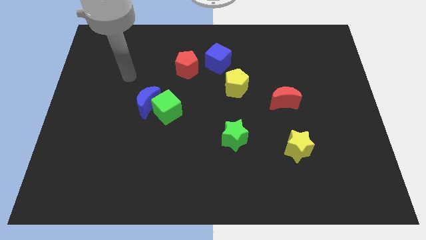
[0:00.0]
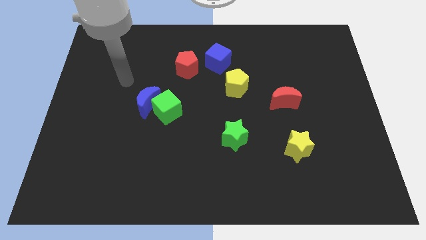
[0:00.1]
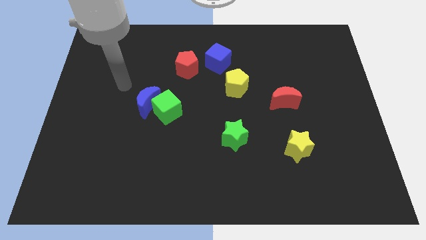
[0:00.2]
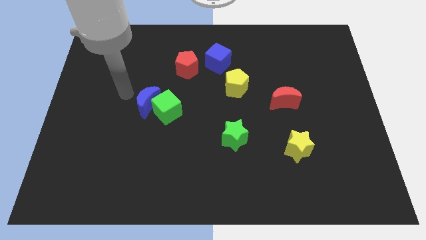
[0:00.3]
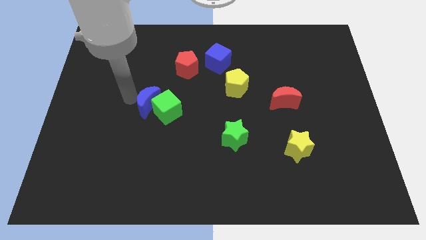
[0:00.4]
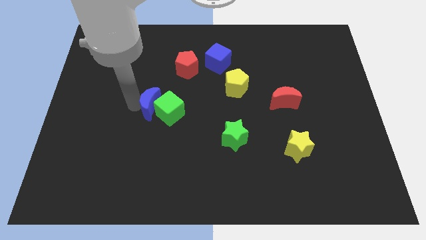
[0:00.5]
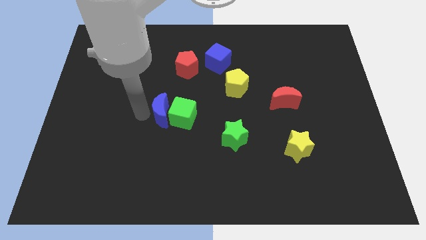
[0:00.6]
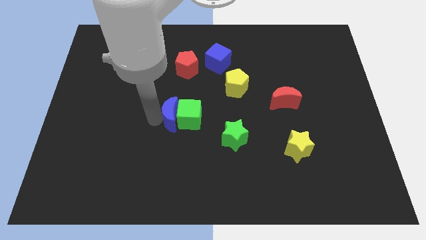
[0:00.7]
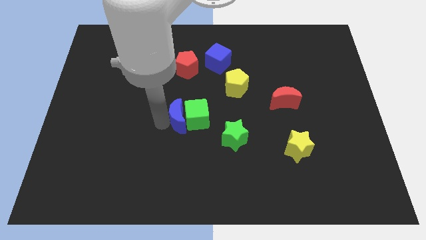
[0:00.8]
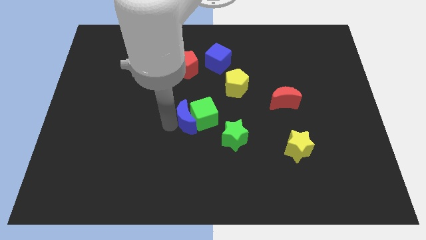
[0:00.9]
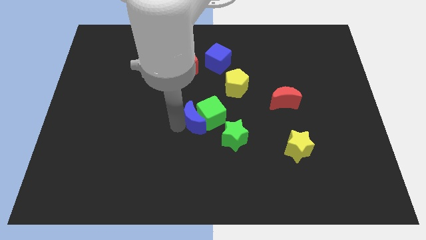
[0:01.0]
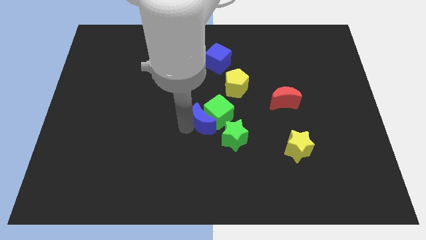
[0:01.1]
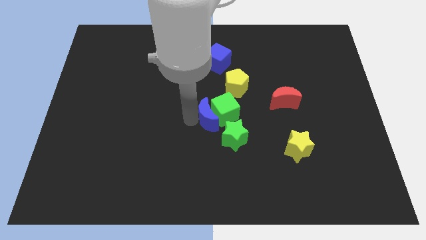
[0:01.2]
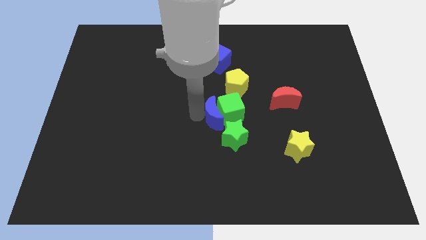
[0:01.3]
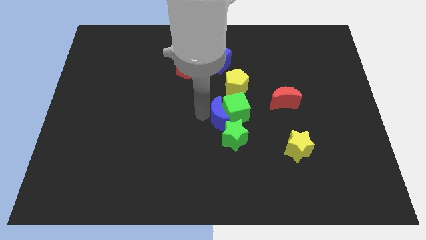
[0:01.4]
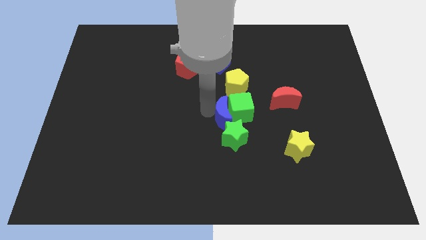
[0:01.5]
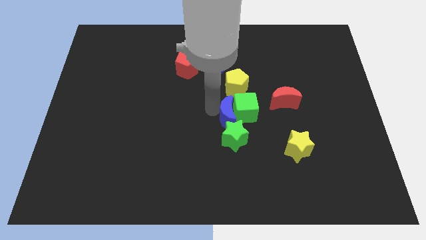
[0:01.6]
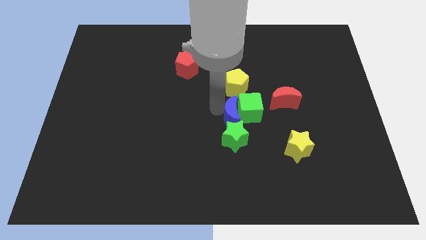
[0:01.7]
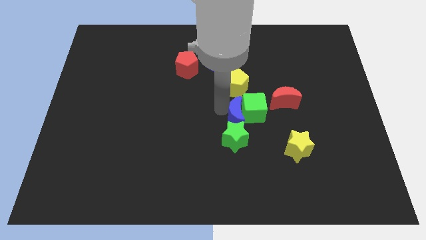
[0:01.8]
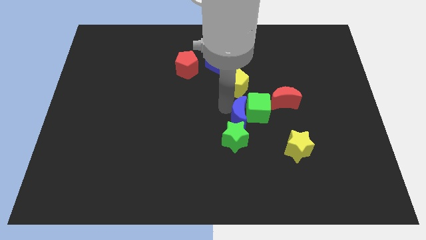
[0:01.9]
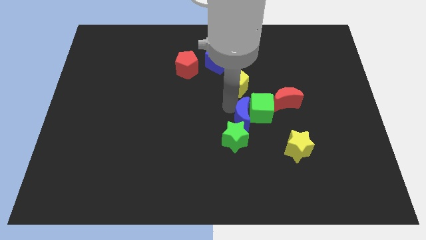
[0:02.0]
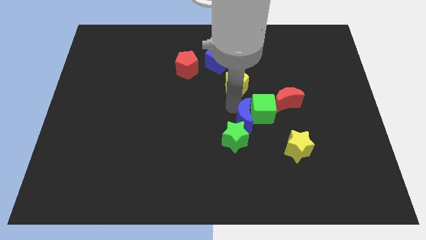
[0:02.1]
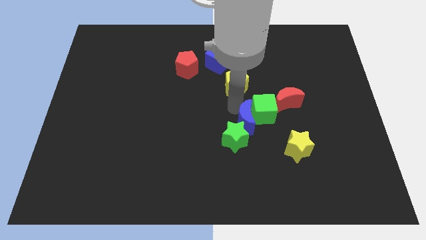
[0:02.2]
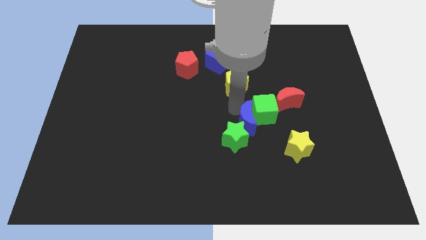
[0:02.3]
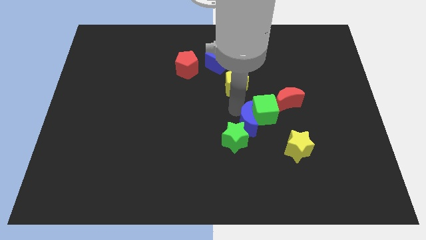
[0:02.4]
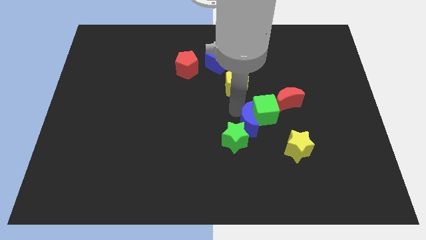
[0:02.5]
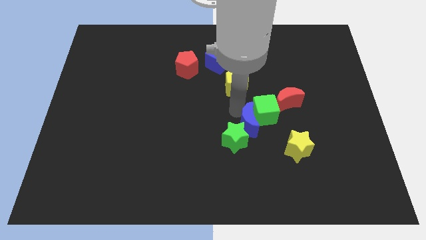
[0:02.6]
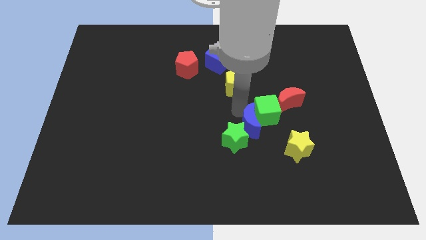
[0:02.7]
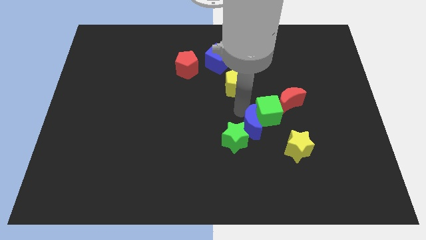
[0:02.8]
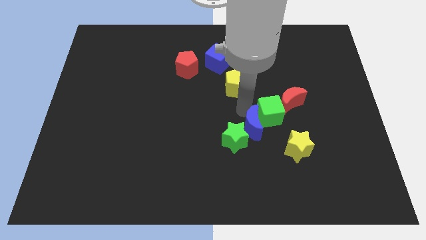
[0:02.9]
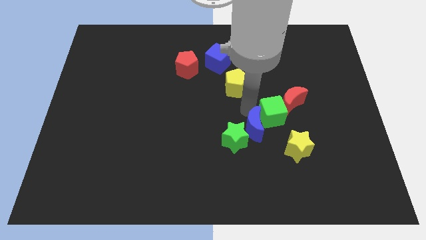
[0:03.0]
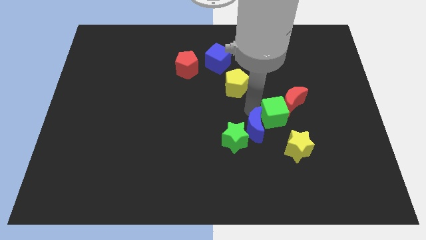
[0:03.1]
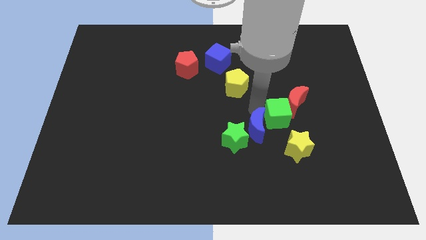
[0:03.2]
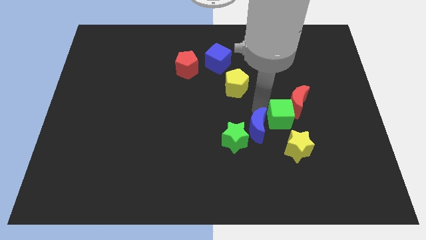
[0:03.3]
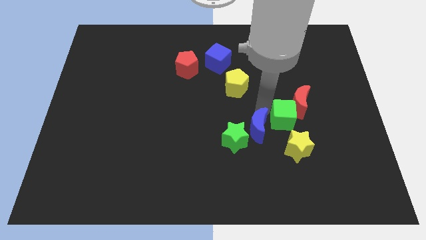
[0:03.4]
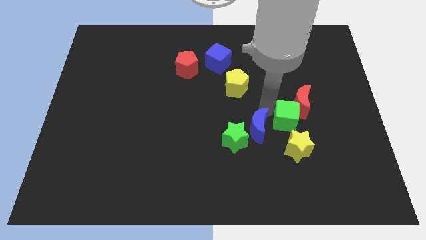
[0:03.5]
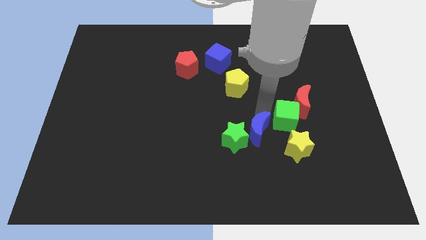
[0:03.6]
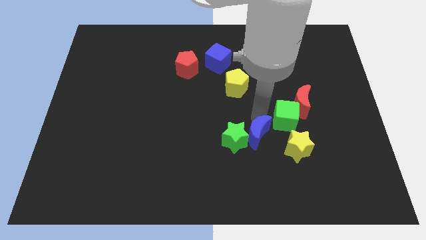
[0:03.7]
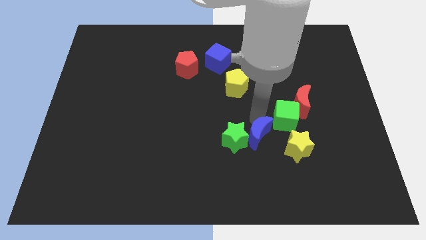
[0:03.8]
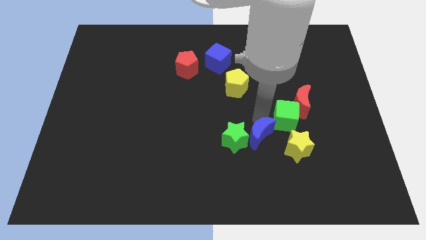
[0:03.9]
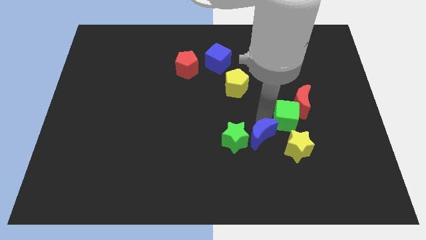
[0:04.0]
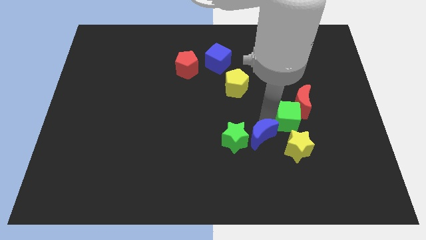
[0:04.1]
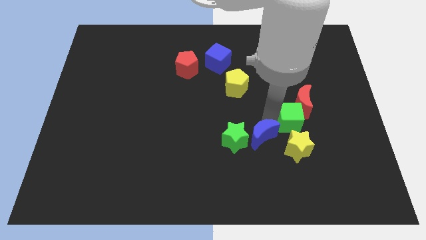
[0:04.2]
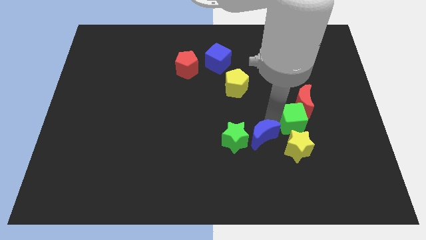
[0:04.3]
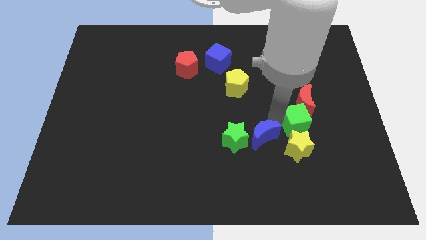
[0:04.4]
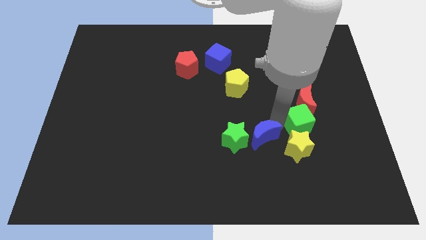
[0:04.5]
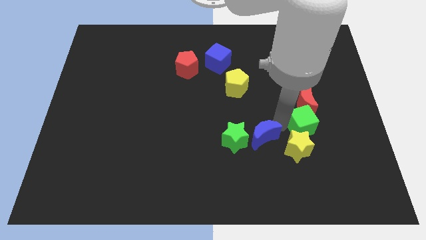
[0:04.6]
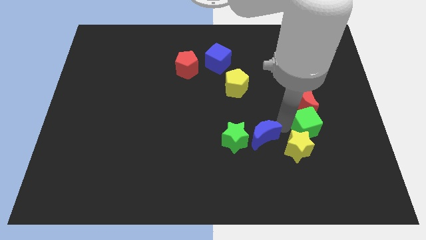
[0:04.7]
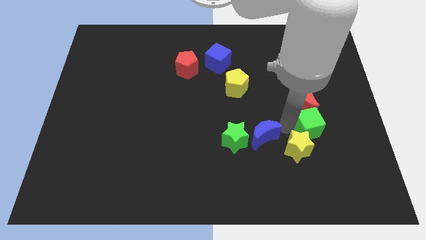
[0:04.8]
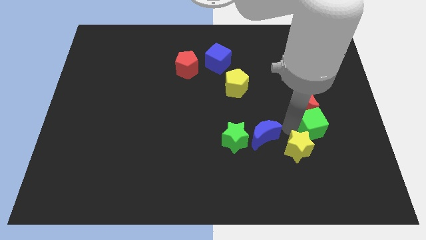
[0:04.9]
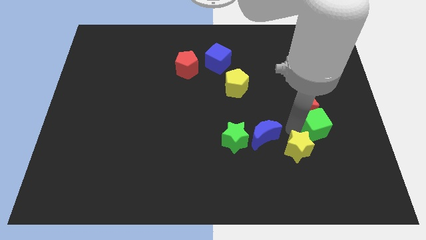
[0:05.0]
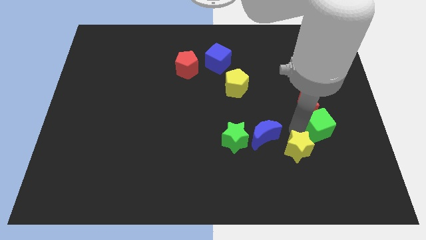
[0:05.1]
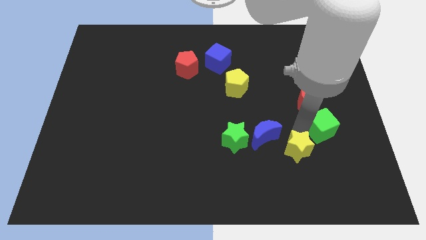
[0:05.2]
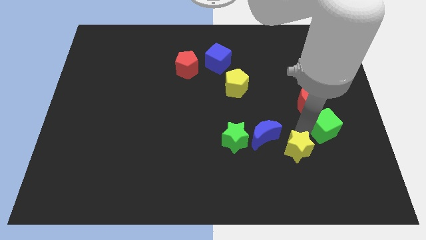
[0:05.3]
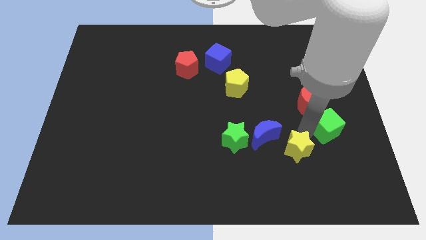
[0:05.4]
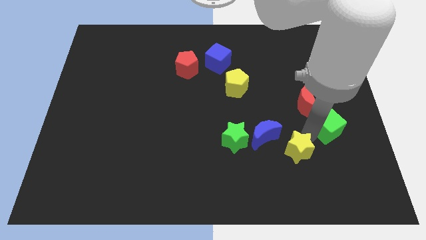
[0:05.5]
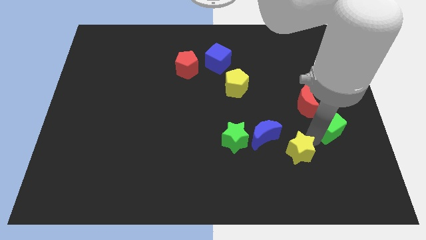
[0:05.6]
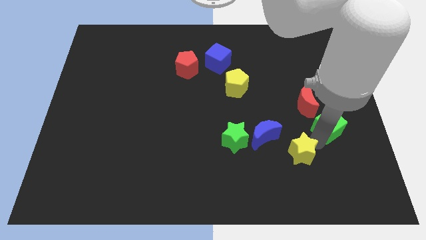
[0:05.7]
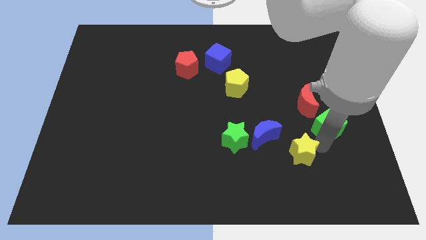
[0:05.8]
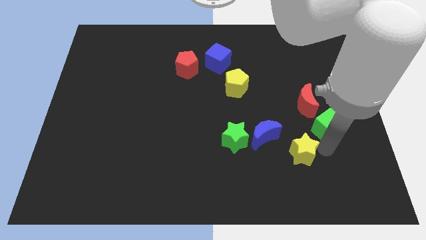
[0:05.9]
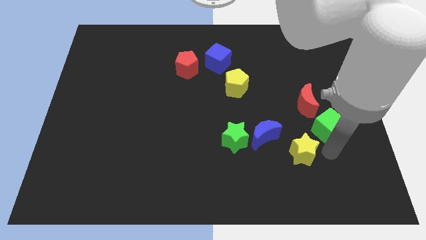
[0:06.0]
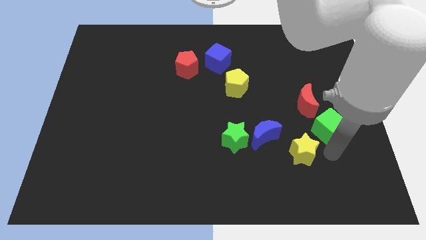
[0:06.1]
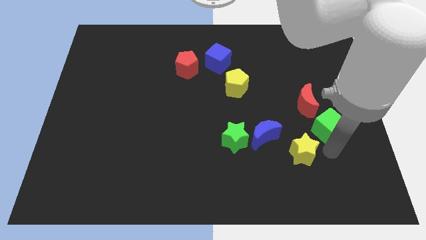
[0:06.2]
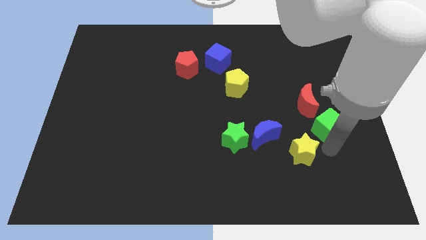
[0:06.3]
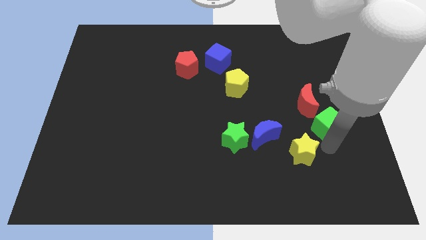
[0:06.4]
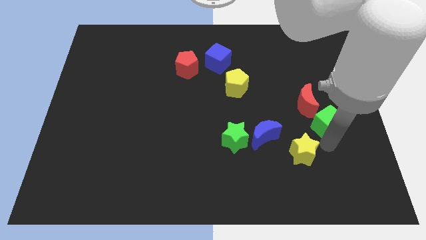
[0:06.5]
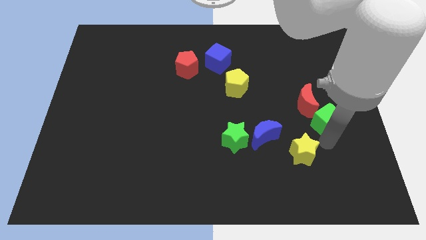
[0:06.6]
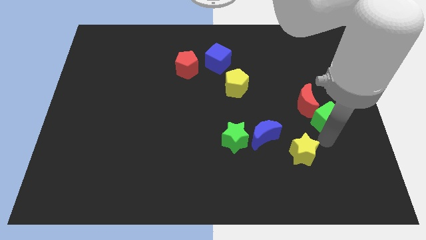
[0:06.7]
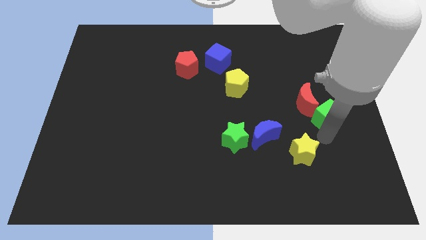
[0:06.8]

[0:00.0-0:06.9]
push the green cube to the right side
